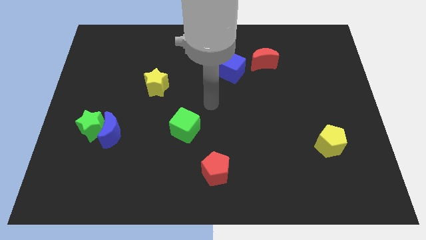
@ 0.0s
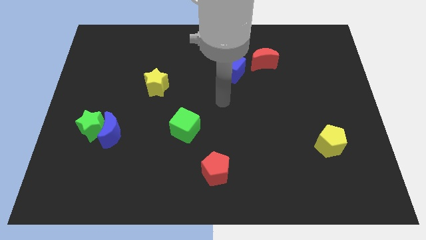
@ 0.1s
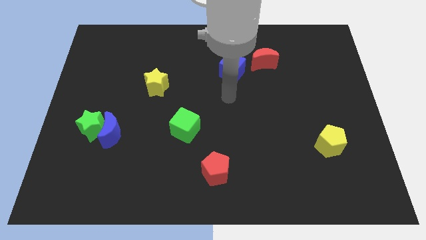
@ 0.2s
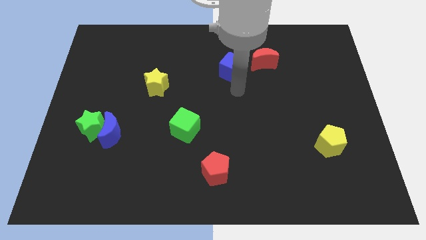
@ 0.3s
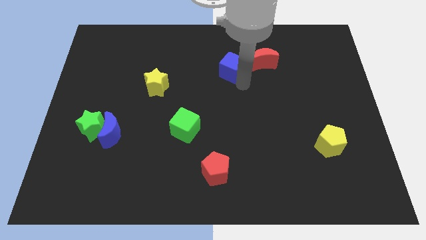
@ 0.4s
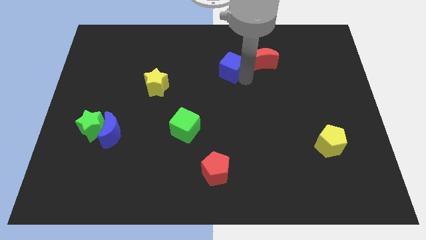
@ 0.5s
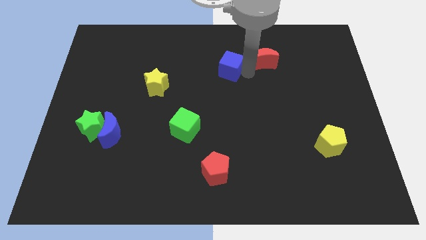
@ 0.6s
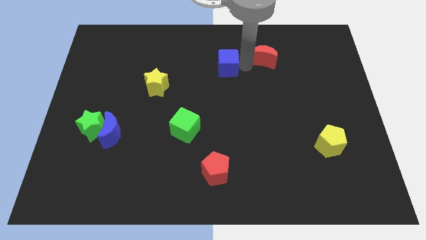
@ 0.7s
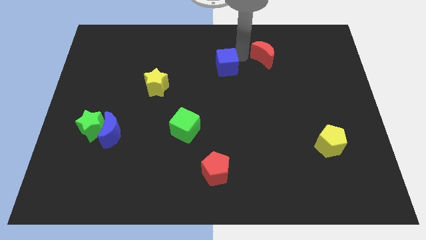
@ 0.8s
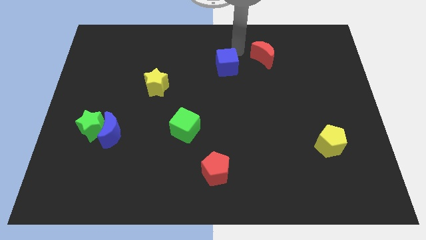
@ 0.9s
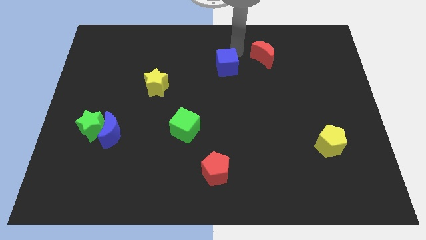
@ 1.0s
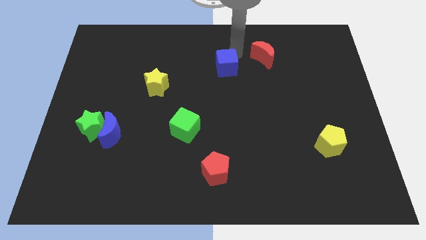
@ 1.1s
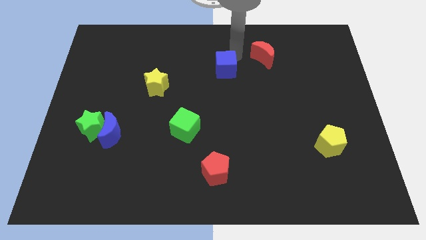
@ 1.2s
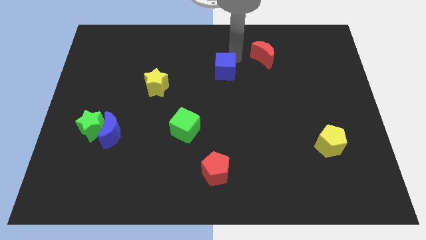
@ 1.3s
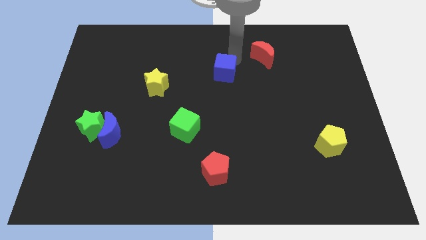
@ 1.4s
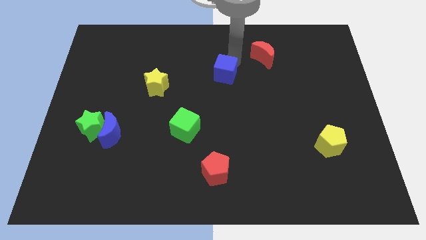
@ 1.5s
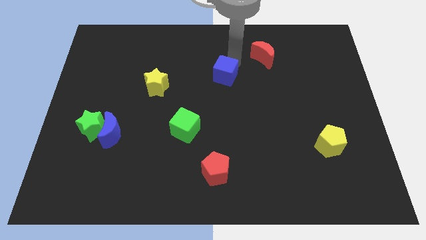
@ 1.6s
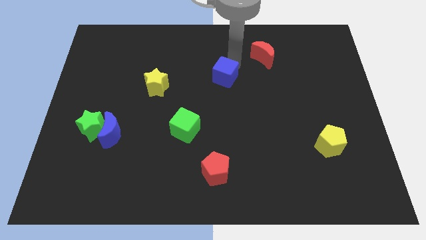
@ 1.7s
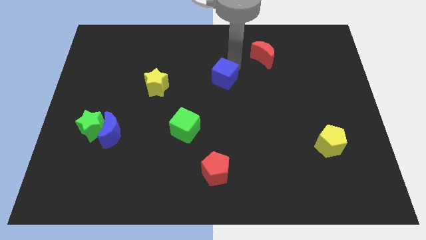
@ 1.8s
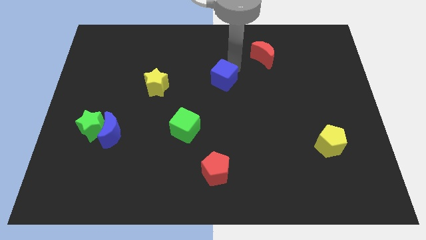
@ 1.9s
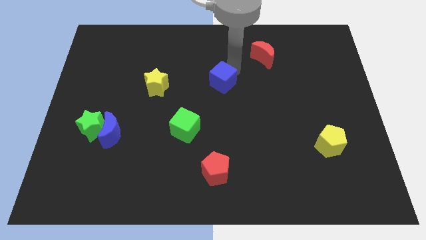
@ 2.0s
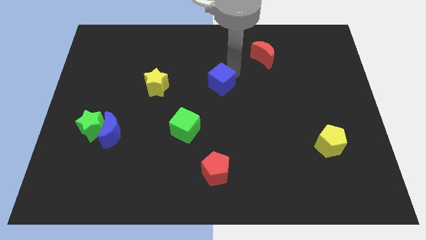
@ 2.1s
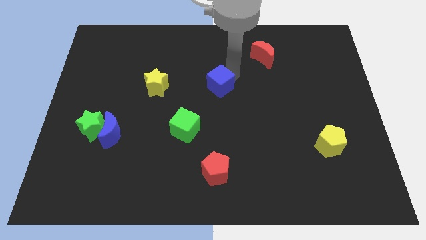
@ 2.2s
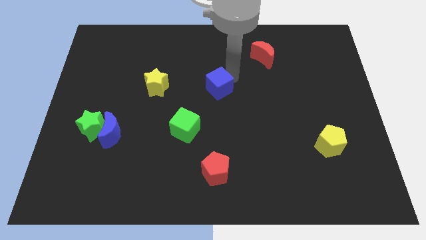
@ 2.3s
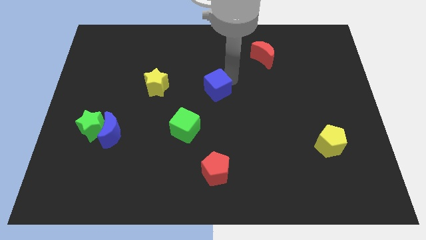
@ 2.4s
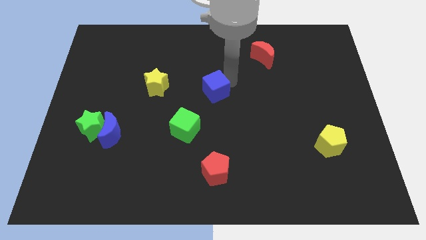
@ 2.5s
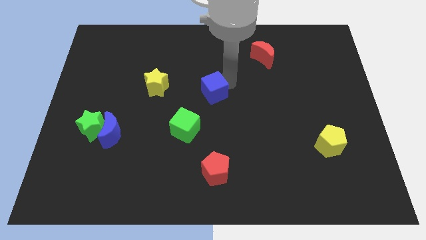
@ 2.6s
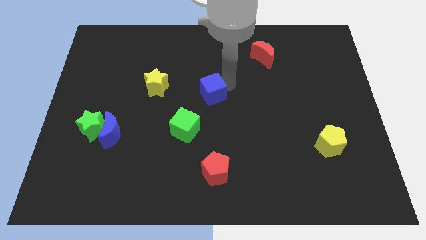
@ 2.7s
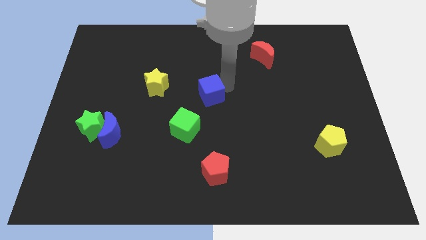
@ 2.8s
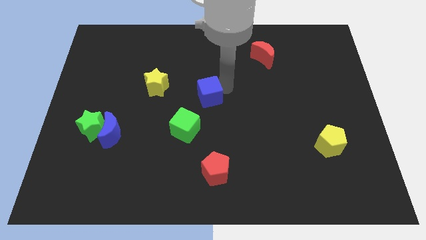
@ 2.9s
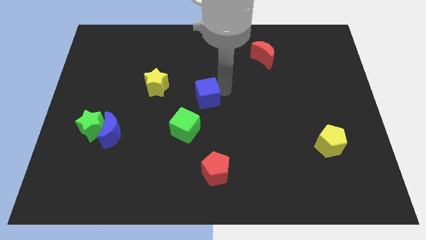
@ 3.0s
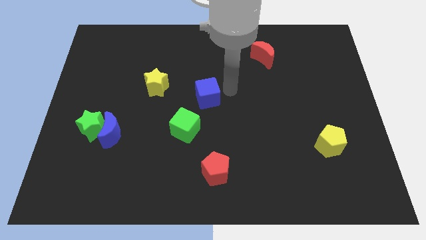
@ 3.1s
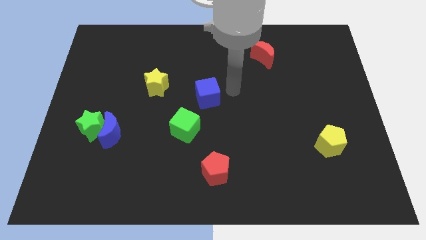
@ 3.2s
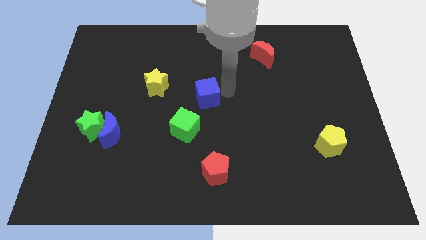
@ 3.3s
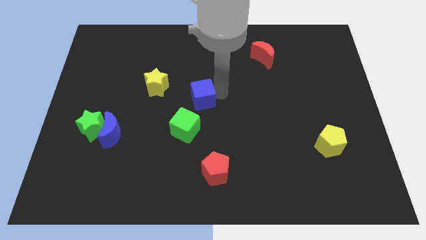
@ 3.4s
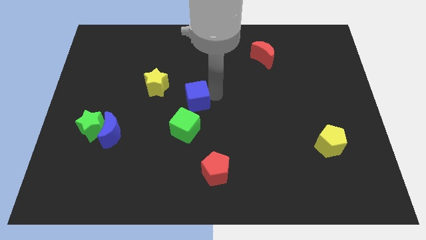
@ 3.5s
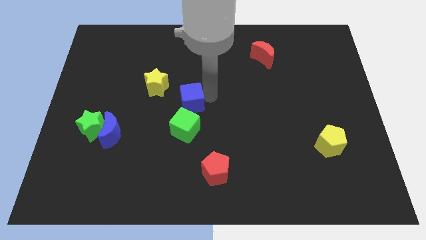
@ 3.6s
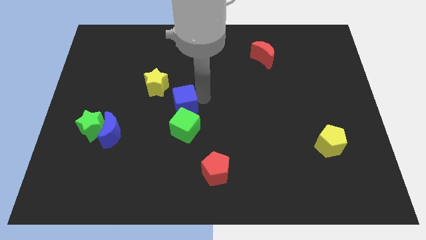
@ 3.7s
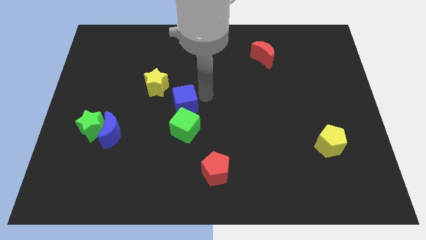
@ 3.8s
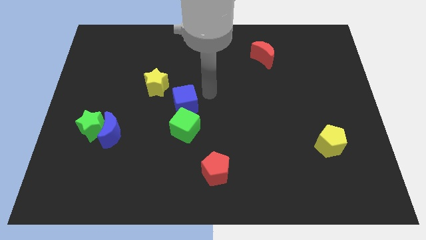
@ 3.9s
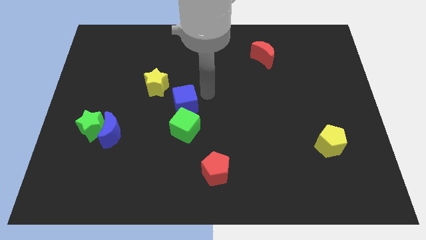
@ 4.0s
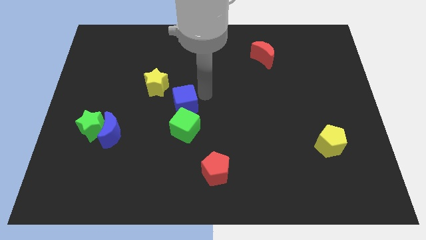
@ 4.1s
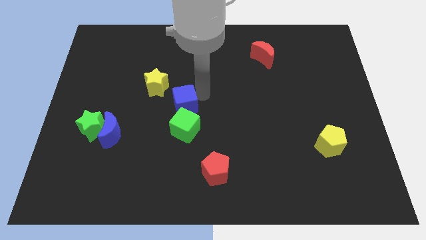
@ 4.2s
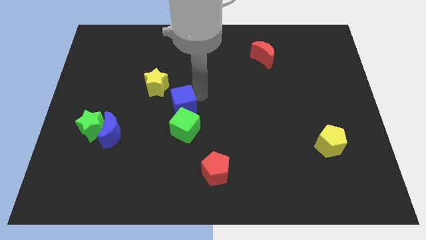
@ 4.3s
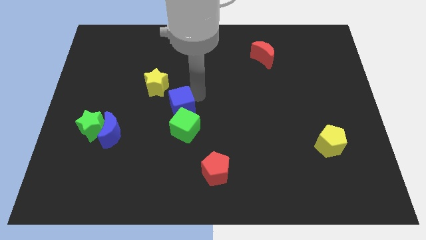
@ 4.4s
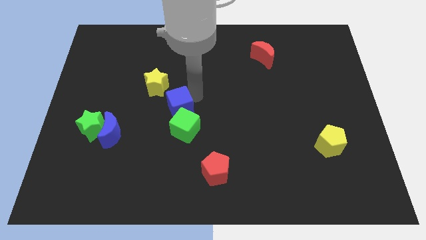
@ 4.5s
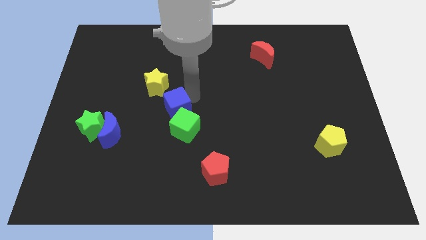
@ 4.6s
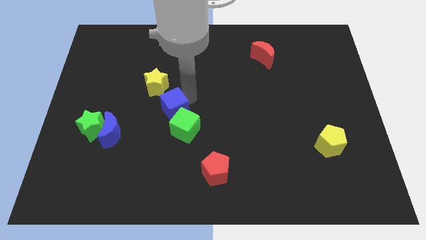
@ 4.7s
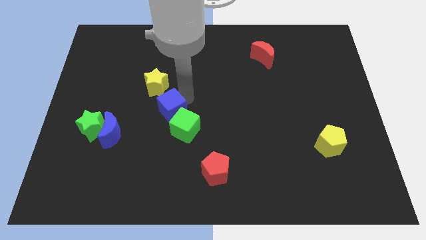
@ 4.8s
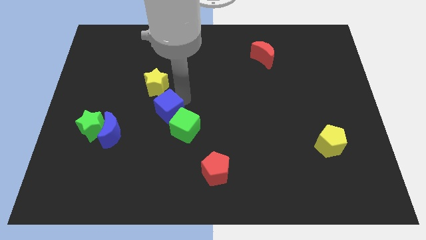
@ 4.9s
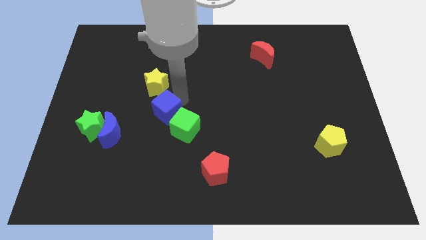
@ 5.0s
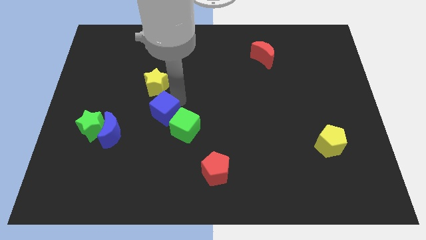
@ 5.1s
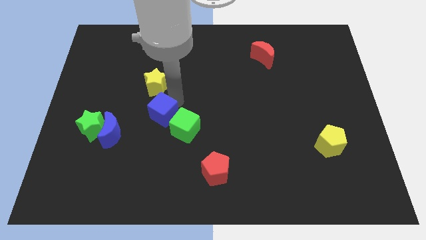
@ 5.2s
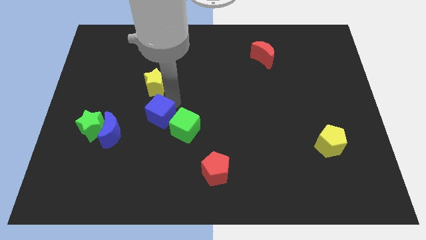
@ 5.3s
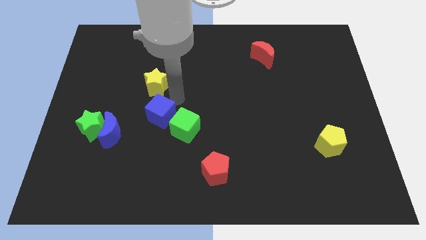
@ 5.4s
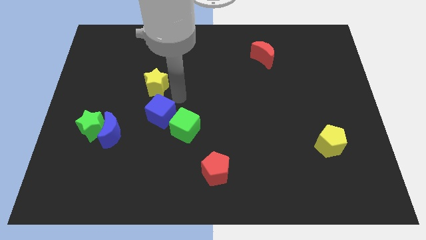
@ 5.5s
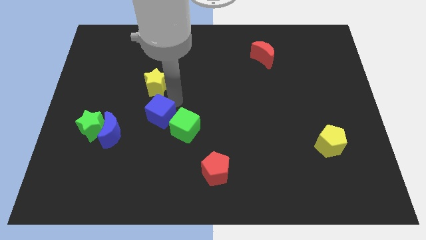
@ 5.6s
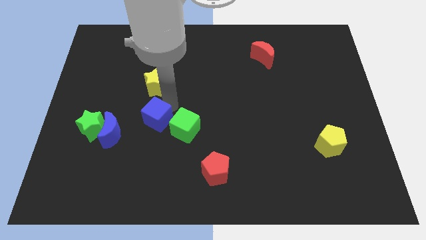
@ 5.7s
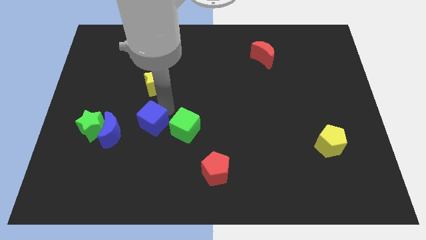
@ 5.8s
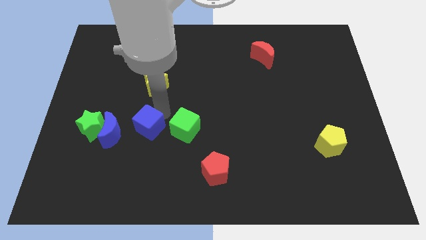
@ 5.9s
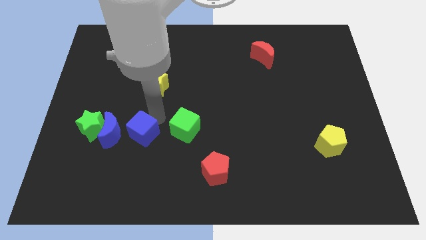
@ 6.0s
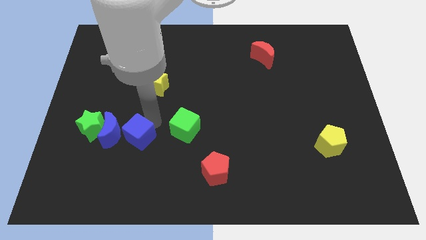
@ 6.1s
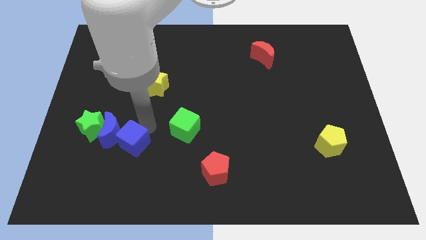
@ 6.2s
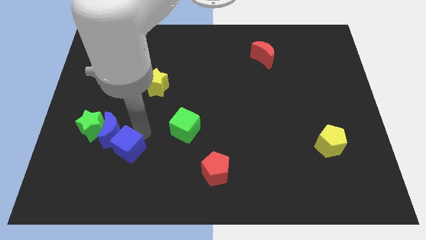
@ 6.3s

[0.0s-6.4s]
put the blue cube below the blue moon

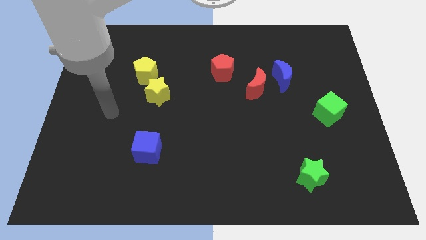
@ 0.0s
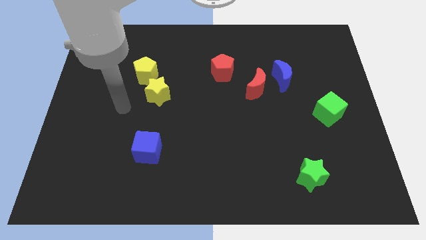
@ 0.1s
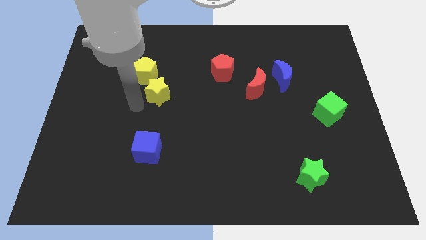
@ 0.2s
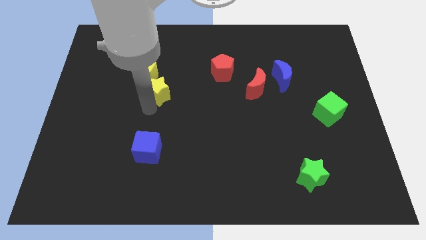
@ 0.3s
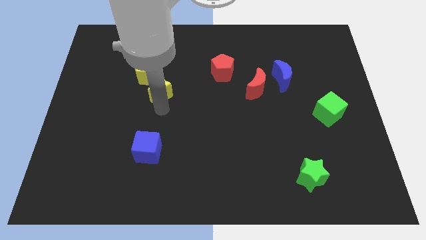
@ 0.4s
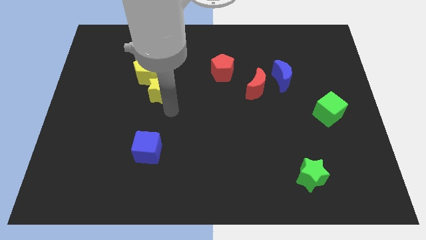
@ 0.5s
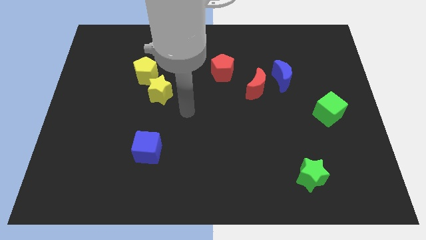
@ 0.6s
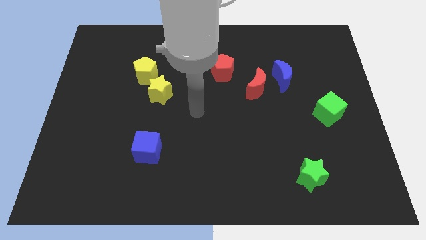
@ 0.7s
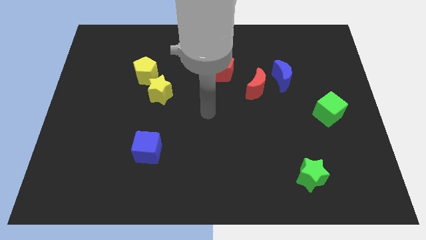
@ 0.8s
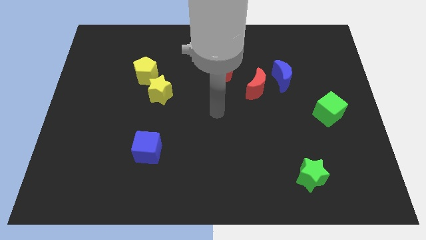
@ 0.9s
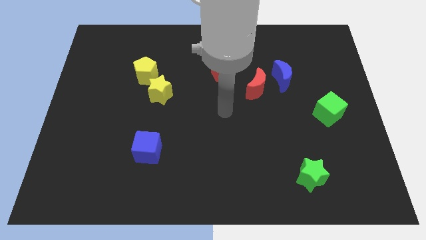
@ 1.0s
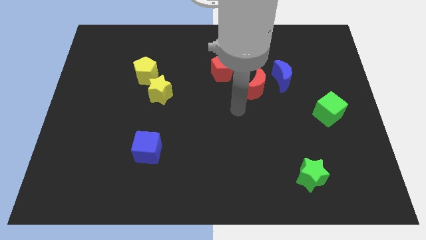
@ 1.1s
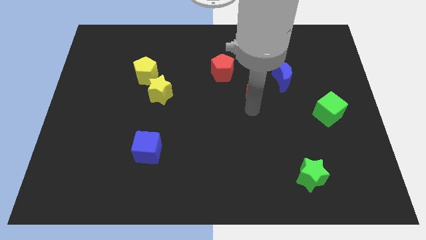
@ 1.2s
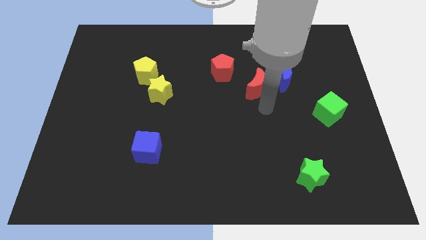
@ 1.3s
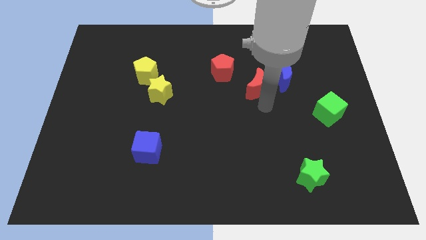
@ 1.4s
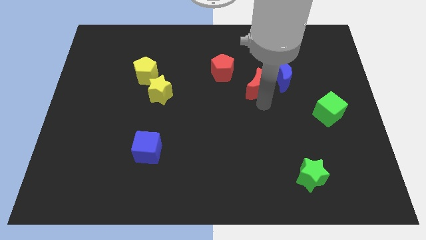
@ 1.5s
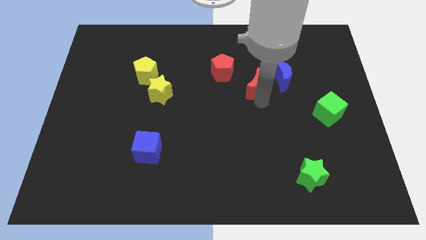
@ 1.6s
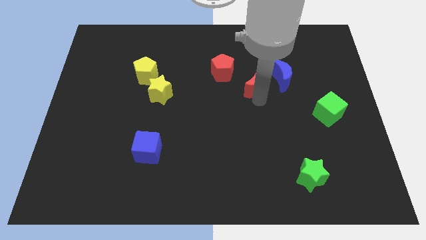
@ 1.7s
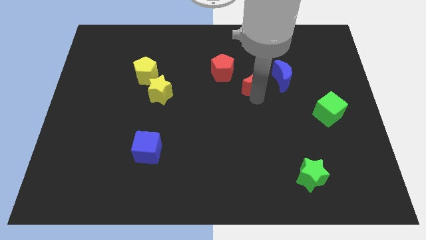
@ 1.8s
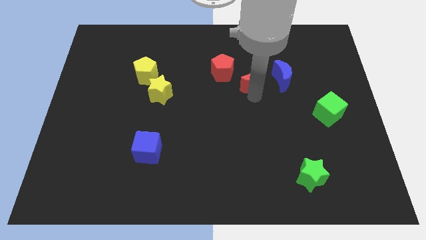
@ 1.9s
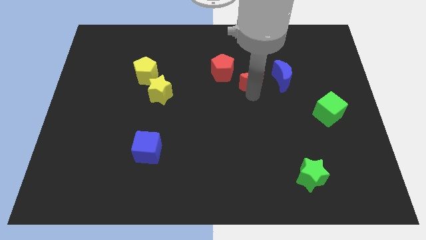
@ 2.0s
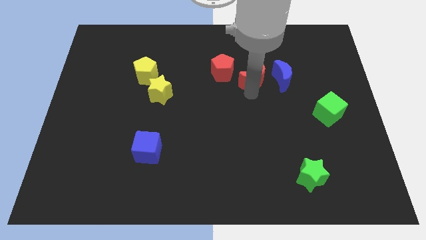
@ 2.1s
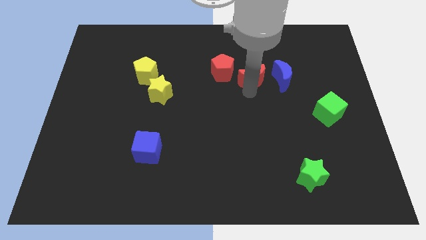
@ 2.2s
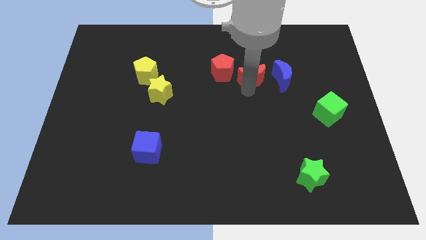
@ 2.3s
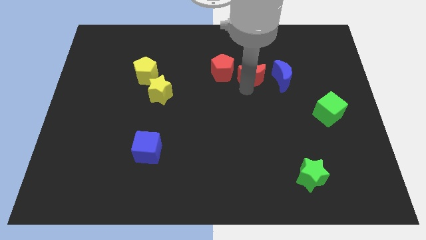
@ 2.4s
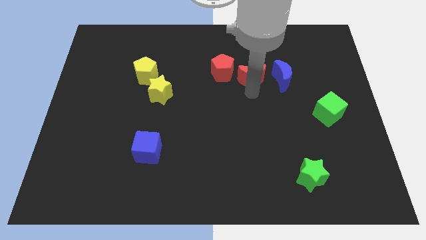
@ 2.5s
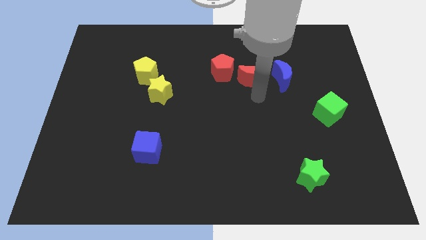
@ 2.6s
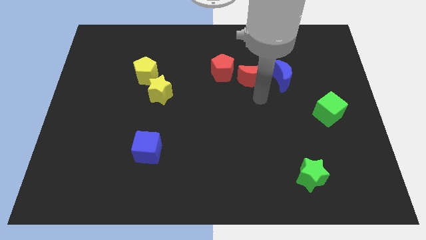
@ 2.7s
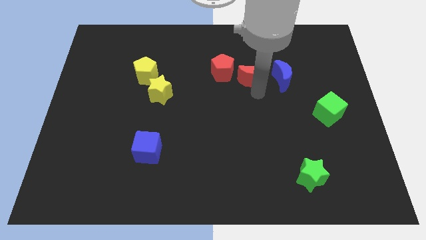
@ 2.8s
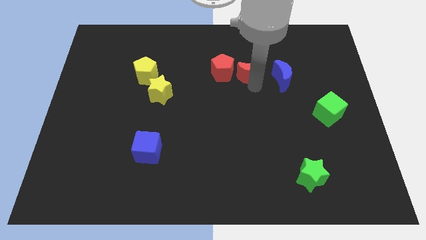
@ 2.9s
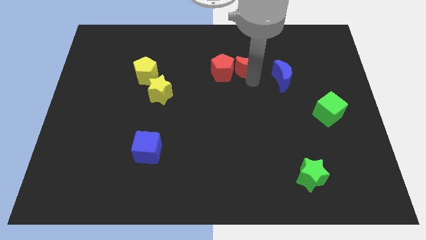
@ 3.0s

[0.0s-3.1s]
push the red moon to the top right of the red pentagon
